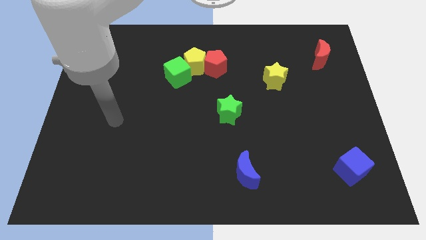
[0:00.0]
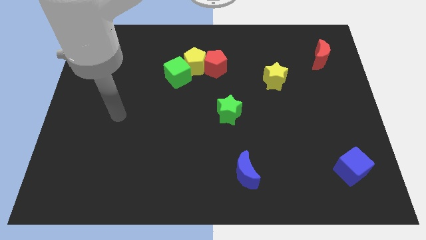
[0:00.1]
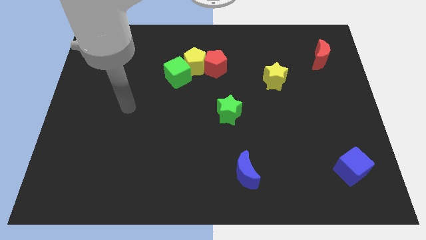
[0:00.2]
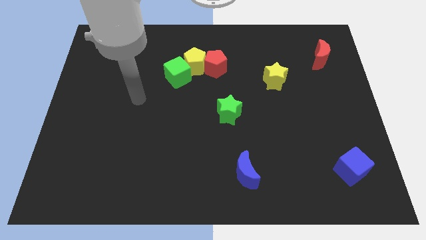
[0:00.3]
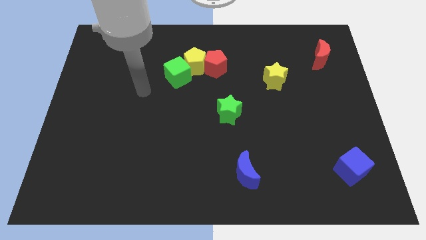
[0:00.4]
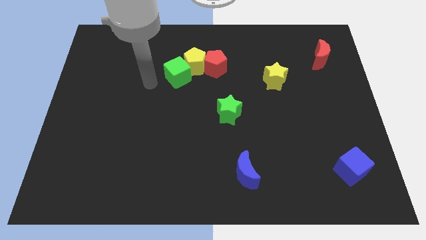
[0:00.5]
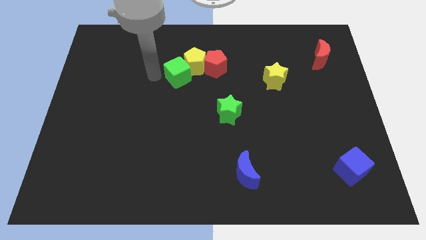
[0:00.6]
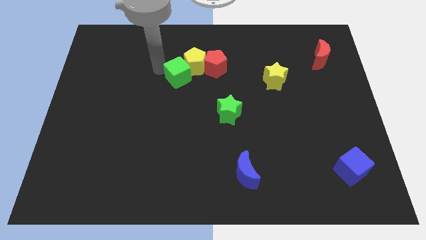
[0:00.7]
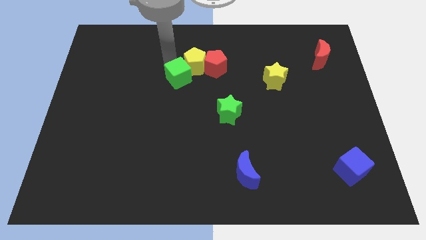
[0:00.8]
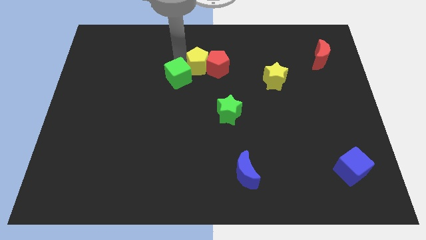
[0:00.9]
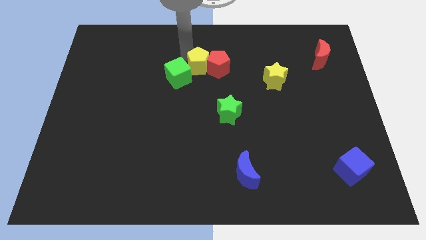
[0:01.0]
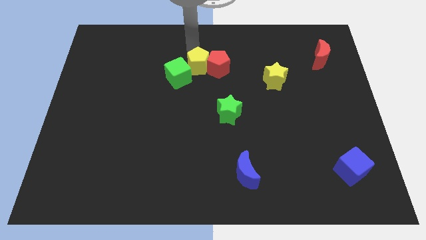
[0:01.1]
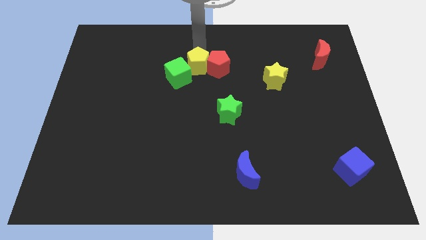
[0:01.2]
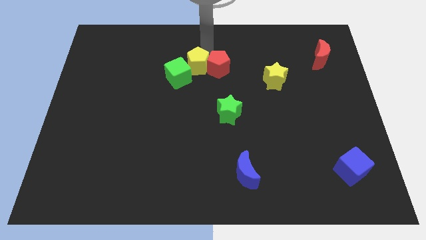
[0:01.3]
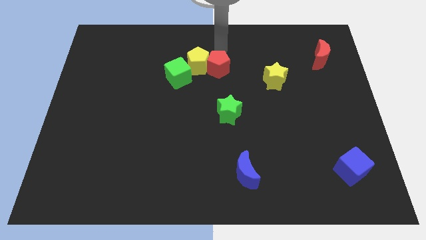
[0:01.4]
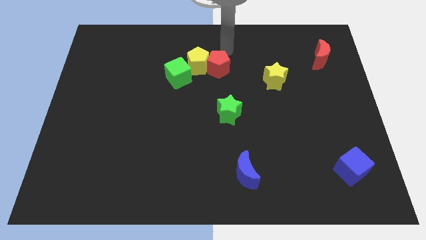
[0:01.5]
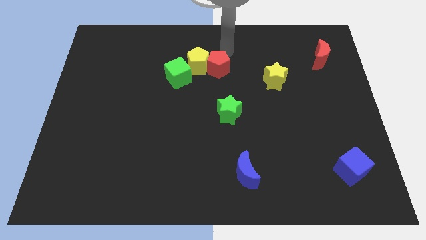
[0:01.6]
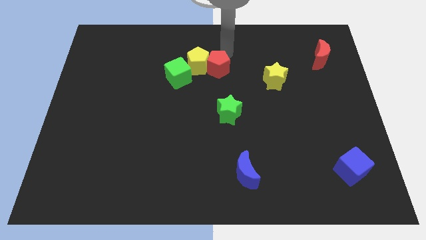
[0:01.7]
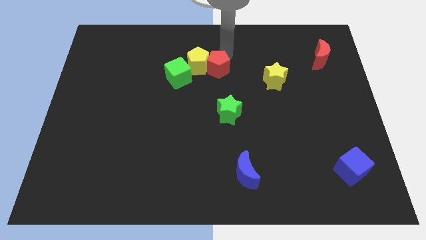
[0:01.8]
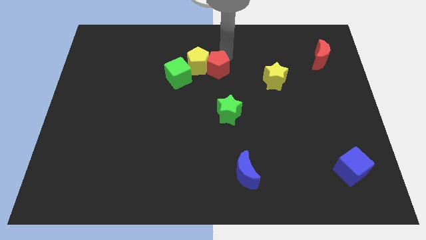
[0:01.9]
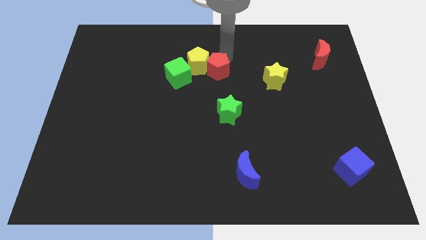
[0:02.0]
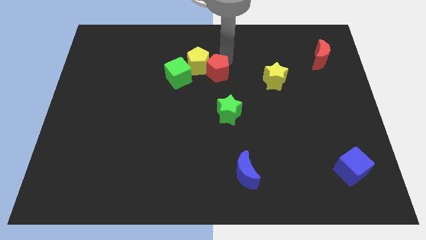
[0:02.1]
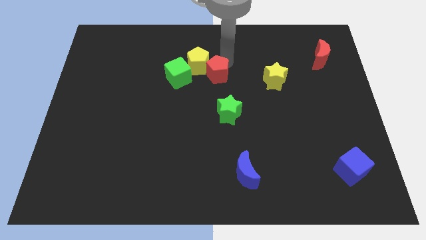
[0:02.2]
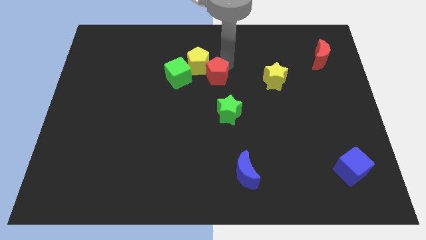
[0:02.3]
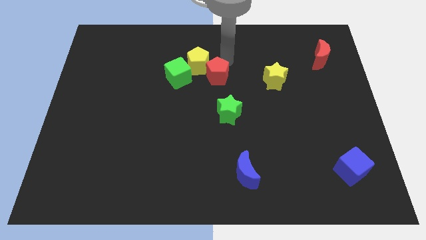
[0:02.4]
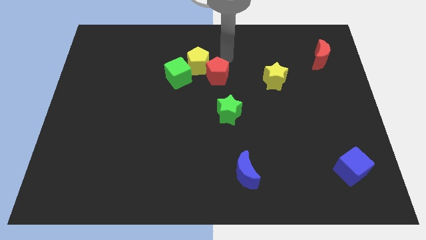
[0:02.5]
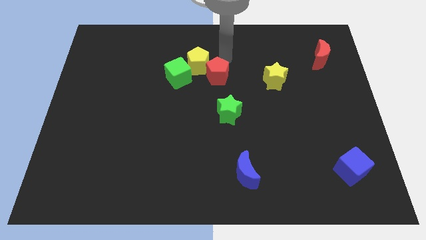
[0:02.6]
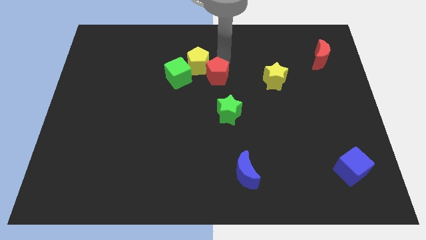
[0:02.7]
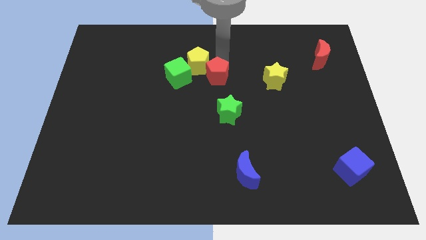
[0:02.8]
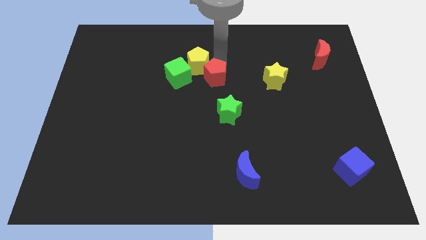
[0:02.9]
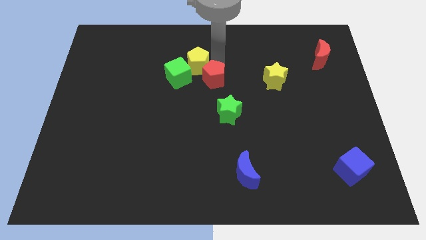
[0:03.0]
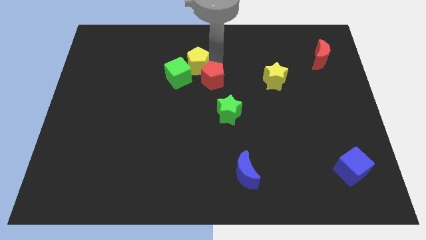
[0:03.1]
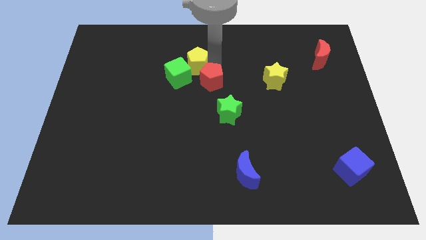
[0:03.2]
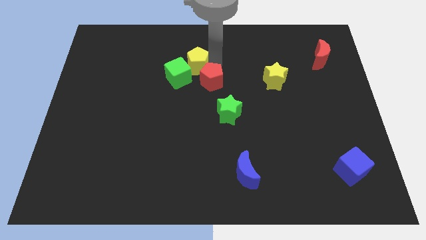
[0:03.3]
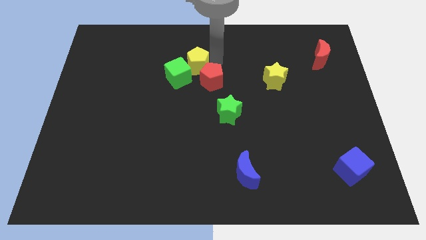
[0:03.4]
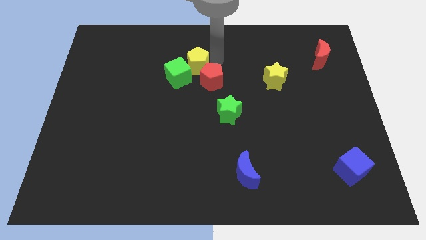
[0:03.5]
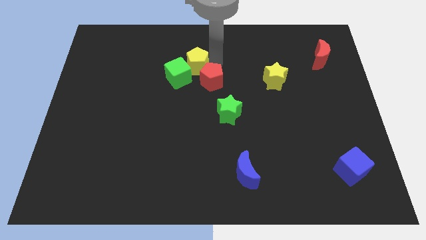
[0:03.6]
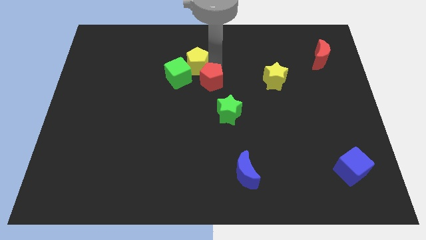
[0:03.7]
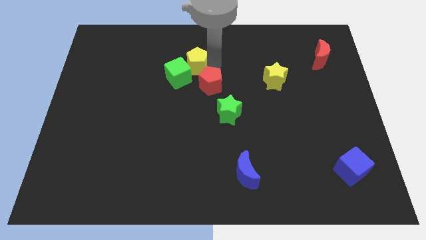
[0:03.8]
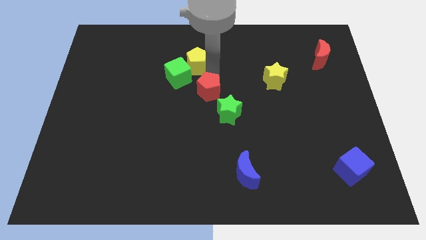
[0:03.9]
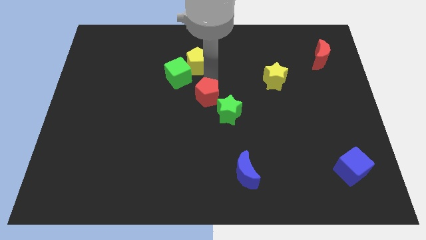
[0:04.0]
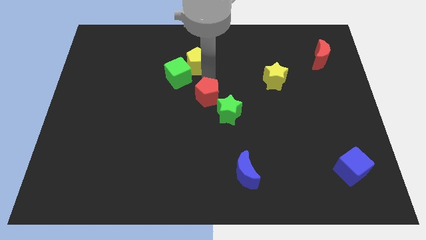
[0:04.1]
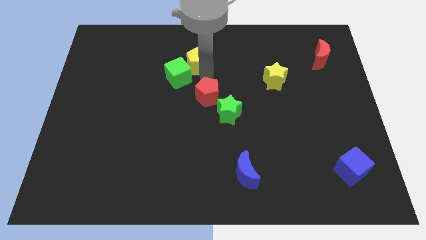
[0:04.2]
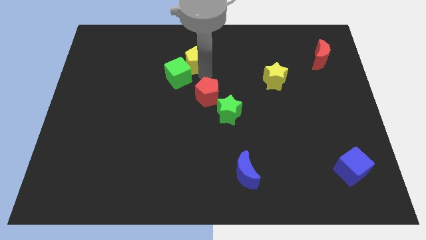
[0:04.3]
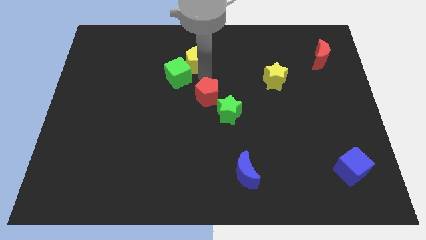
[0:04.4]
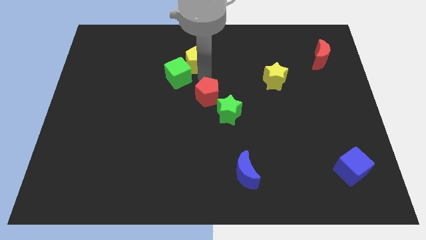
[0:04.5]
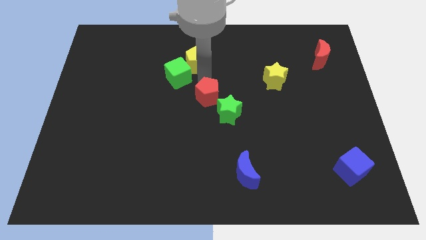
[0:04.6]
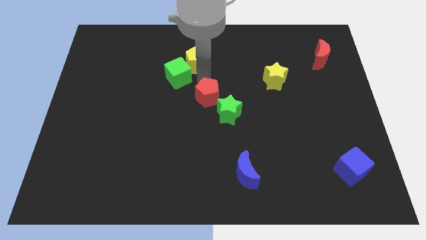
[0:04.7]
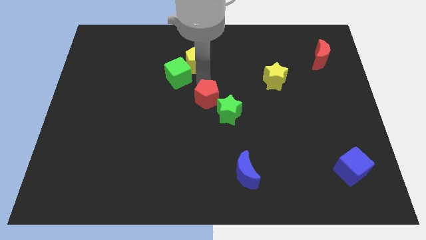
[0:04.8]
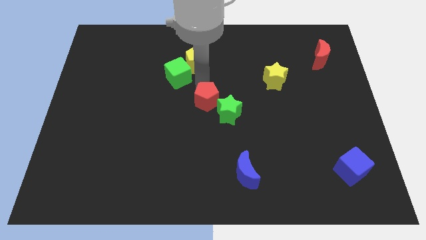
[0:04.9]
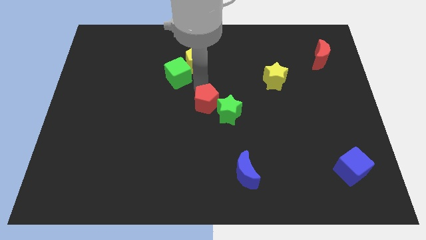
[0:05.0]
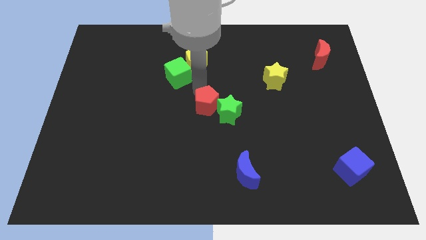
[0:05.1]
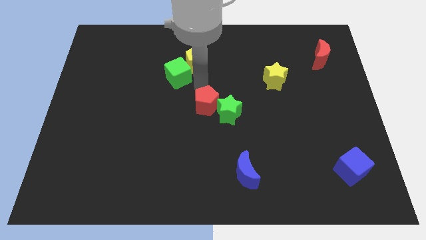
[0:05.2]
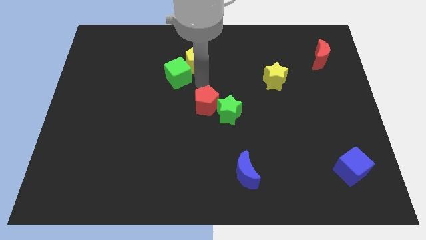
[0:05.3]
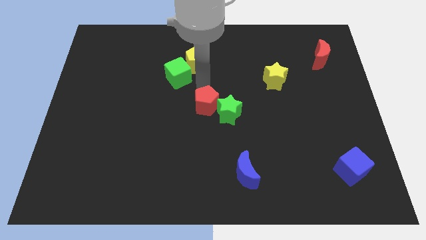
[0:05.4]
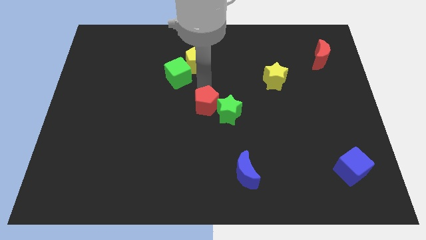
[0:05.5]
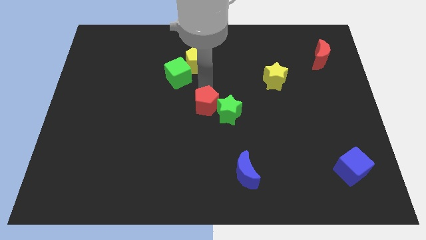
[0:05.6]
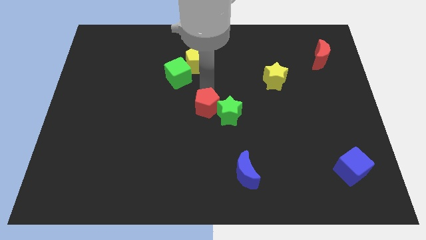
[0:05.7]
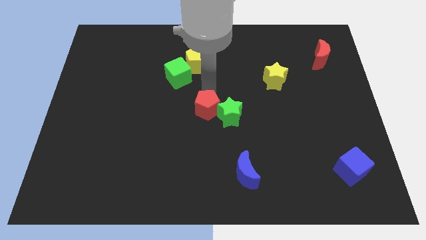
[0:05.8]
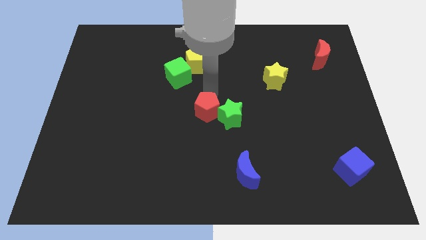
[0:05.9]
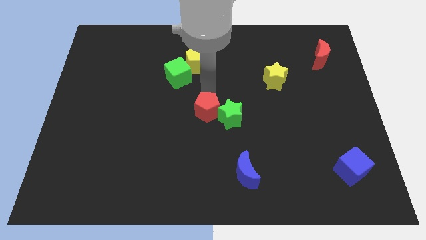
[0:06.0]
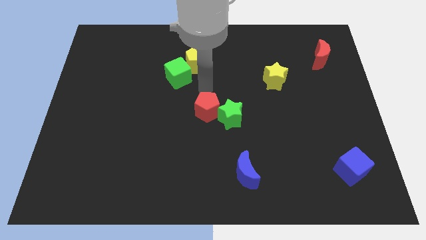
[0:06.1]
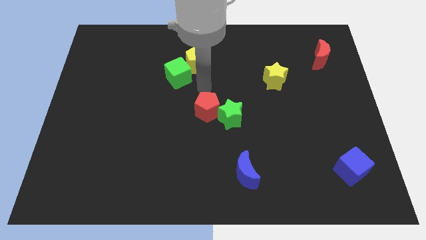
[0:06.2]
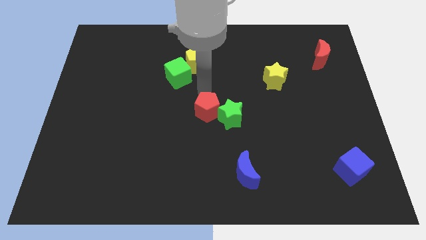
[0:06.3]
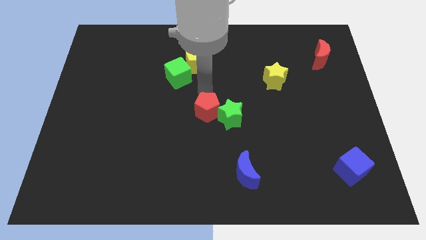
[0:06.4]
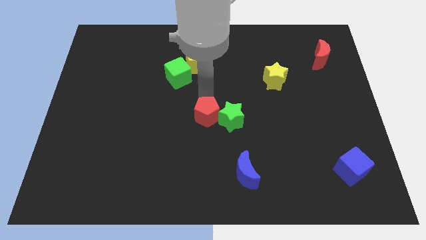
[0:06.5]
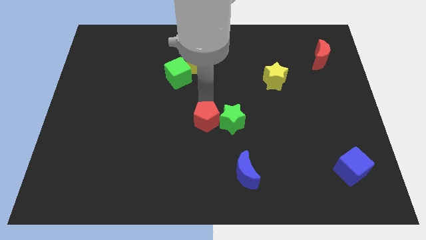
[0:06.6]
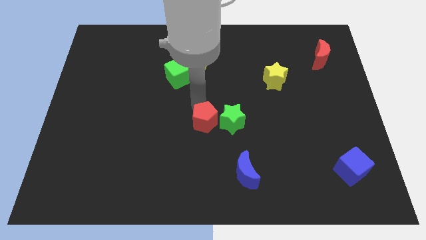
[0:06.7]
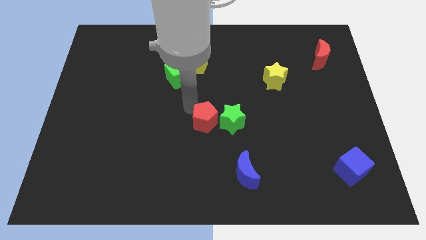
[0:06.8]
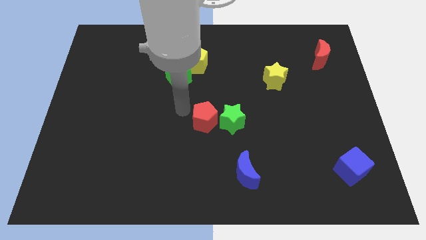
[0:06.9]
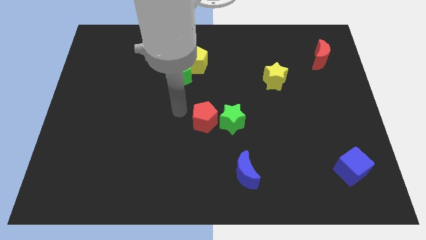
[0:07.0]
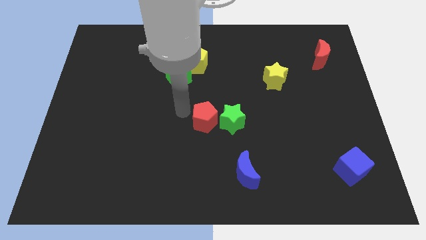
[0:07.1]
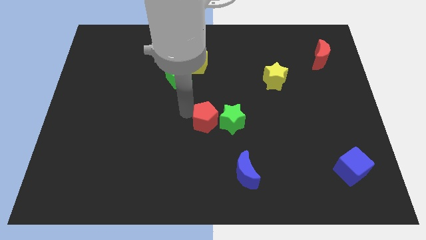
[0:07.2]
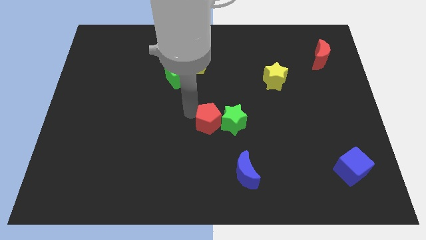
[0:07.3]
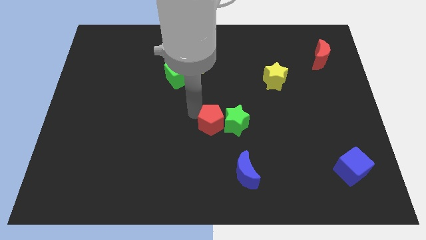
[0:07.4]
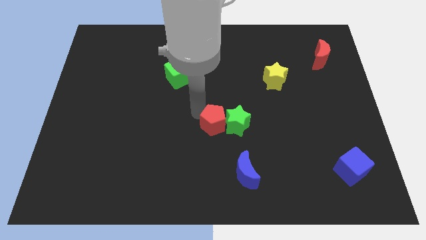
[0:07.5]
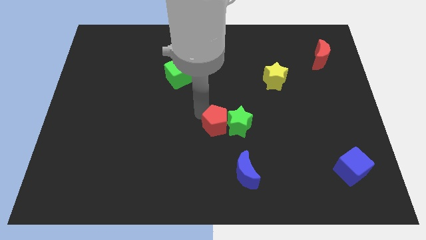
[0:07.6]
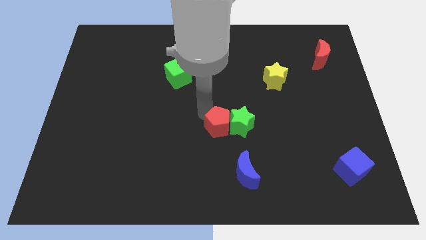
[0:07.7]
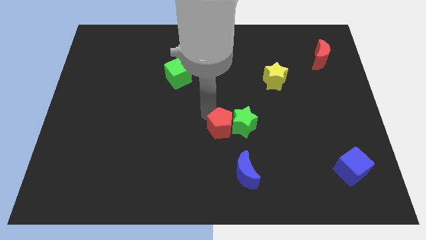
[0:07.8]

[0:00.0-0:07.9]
push the red pentagon above the blue moon
